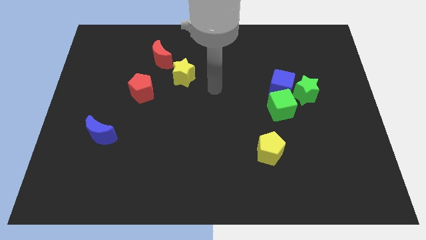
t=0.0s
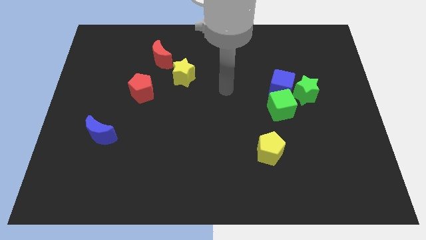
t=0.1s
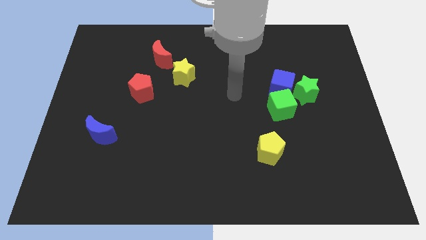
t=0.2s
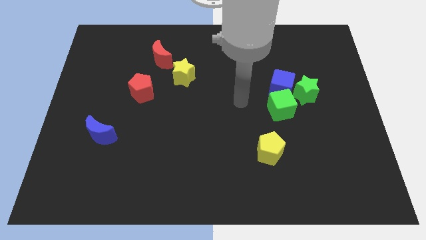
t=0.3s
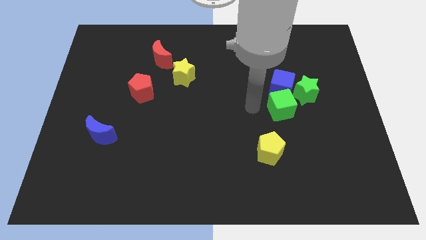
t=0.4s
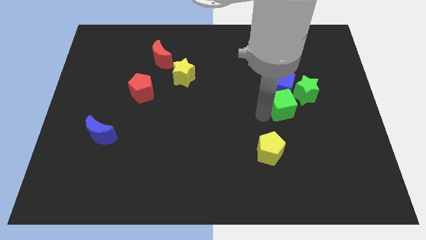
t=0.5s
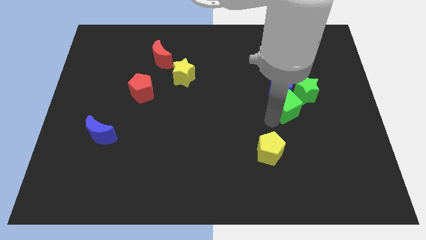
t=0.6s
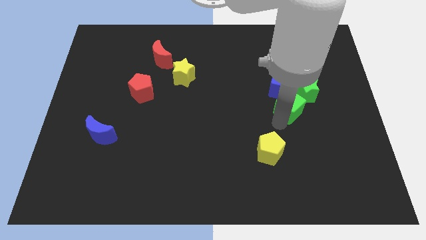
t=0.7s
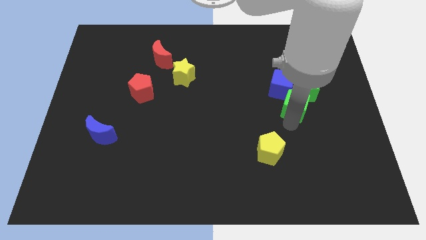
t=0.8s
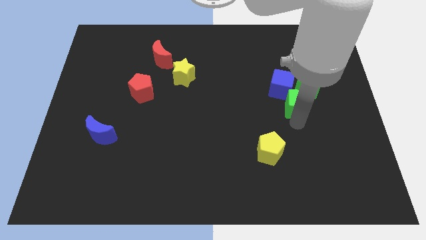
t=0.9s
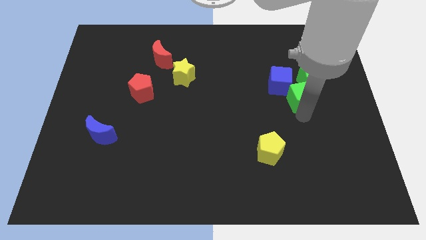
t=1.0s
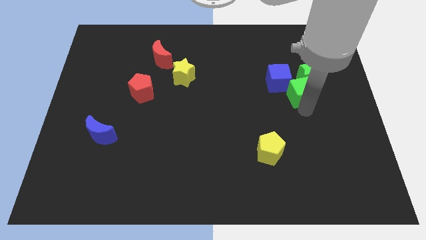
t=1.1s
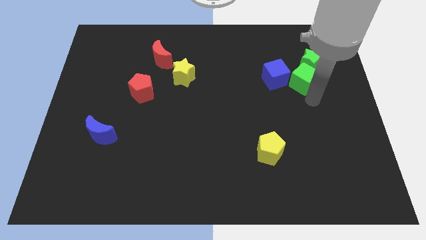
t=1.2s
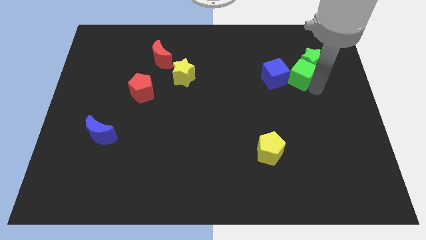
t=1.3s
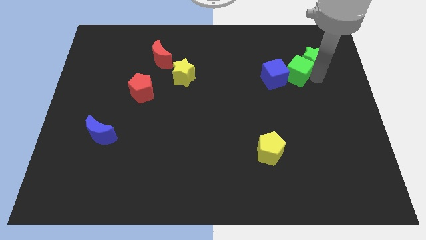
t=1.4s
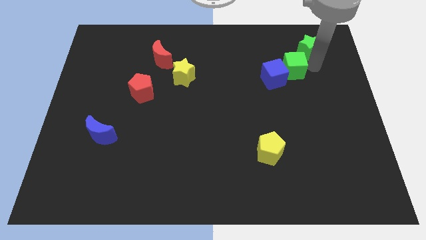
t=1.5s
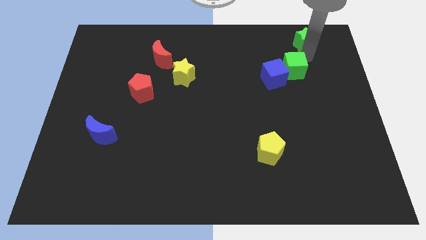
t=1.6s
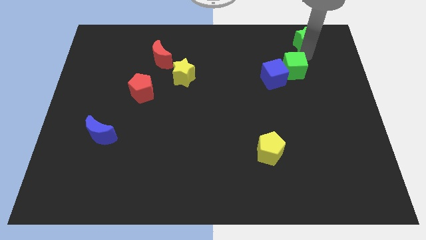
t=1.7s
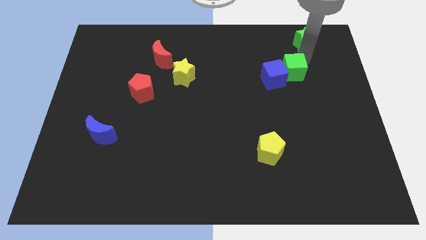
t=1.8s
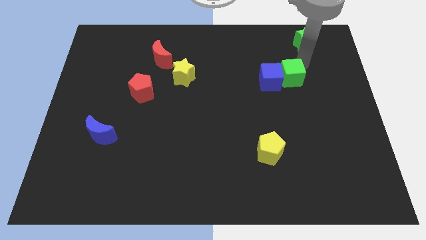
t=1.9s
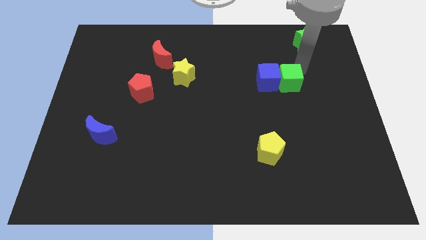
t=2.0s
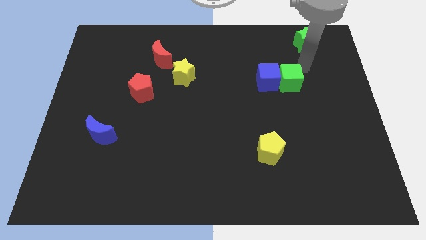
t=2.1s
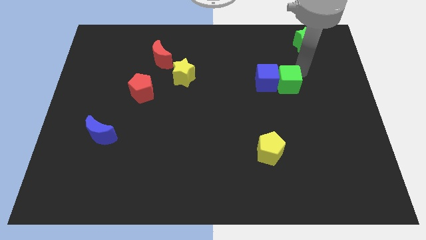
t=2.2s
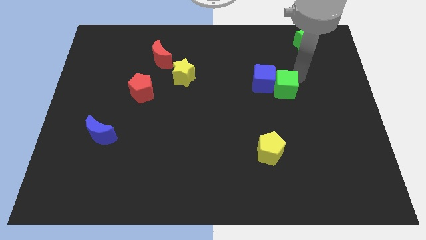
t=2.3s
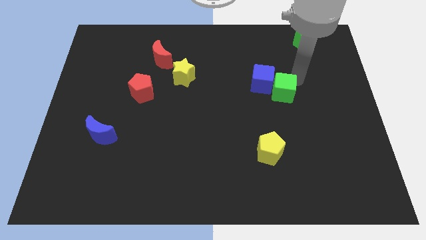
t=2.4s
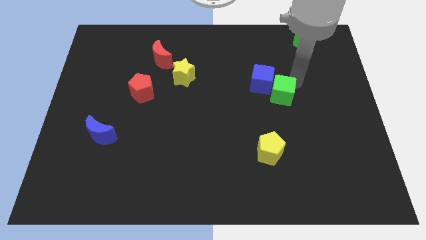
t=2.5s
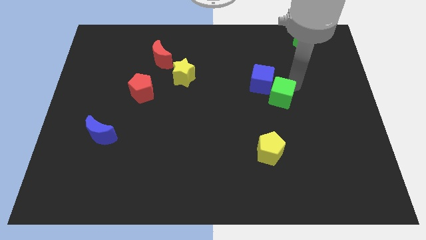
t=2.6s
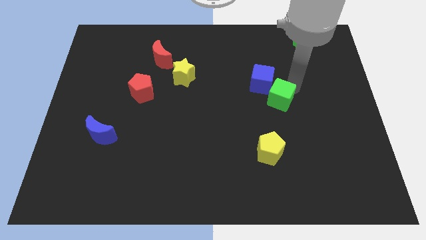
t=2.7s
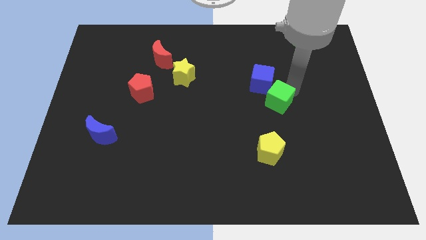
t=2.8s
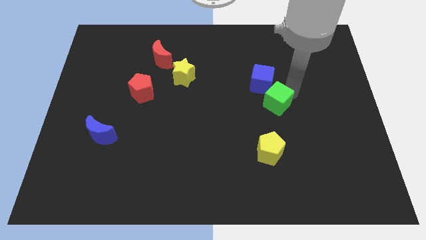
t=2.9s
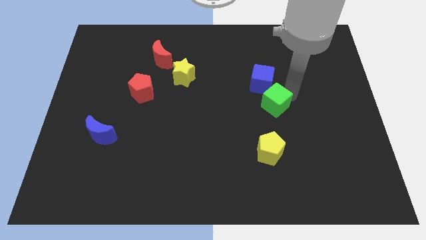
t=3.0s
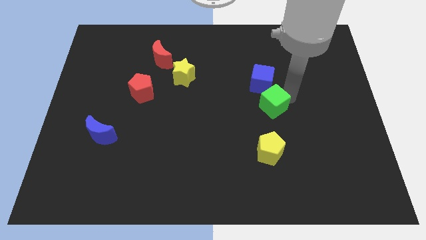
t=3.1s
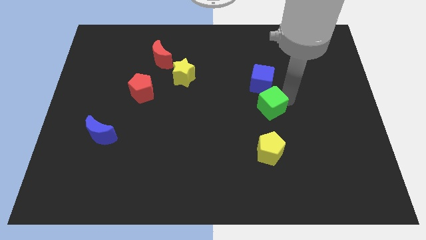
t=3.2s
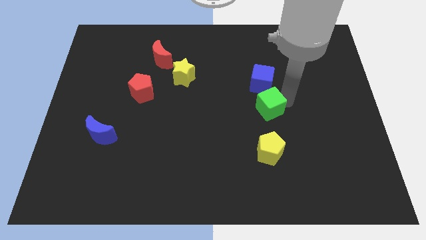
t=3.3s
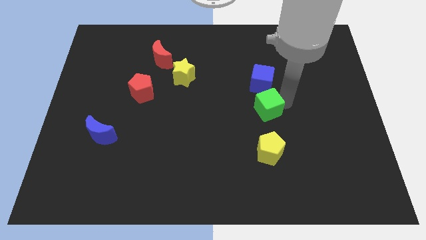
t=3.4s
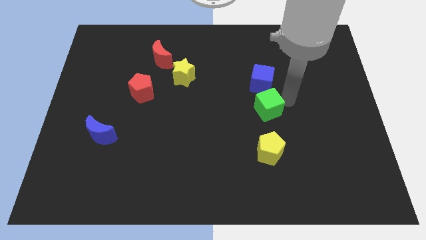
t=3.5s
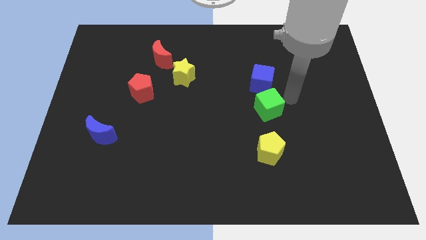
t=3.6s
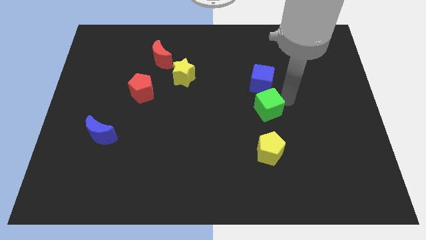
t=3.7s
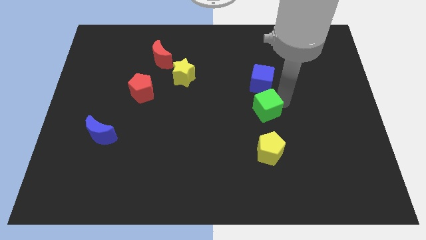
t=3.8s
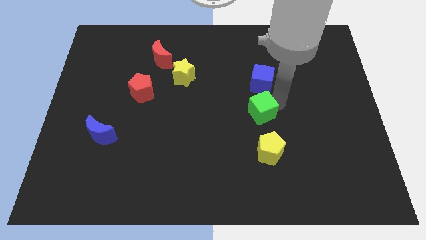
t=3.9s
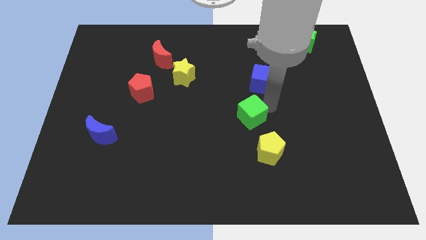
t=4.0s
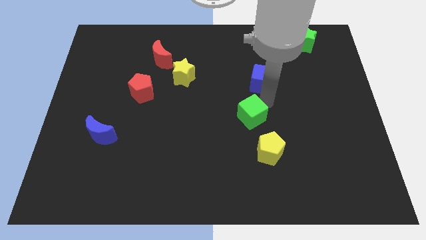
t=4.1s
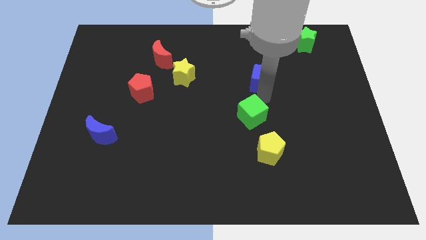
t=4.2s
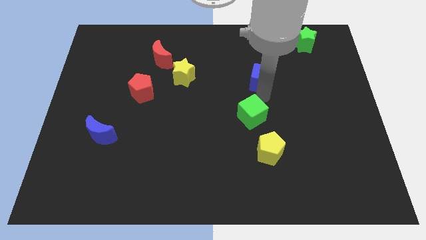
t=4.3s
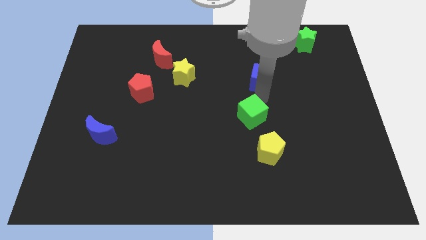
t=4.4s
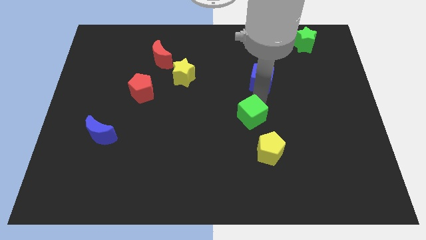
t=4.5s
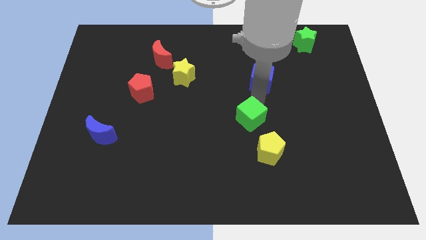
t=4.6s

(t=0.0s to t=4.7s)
slightly push the green cube diagonally downwards and left

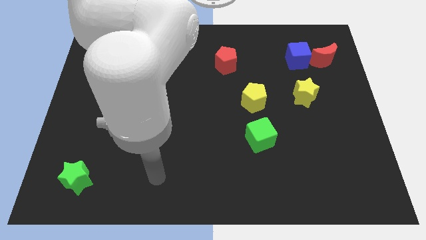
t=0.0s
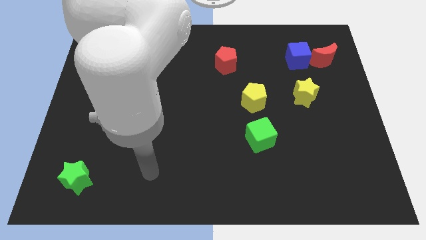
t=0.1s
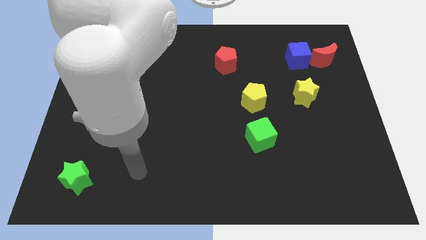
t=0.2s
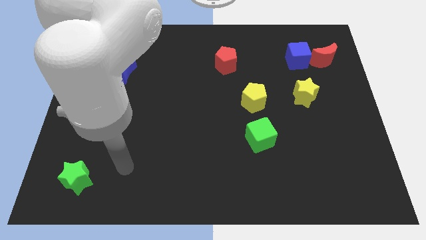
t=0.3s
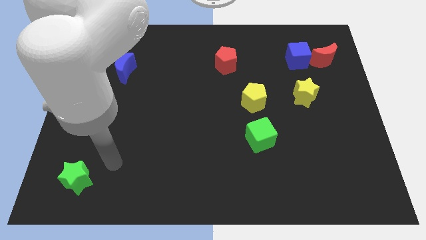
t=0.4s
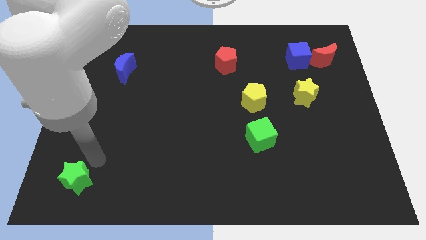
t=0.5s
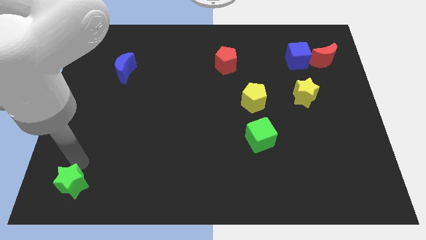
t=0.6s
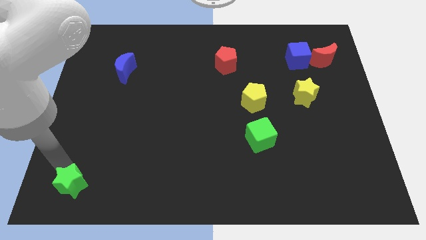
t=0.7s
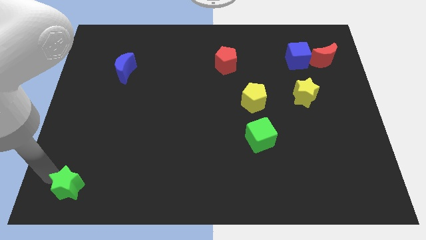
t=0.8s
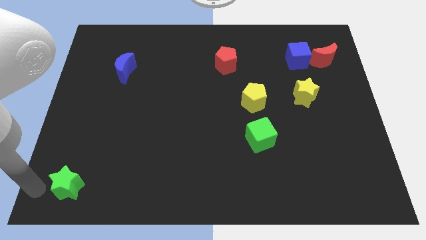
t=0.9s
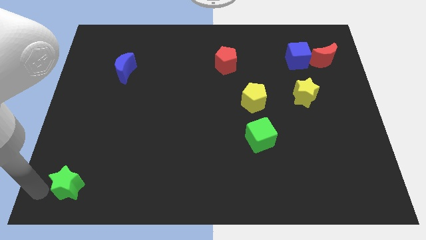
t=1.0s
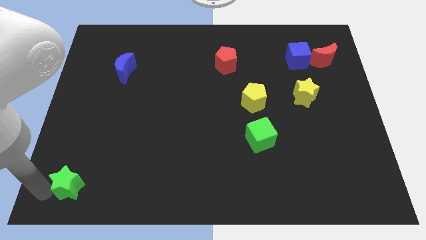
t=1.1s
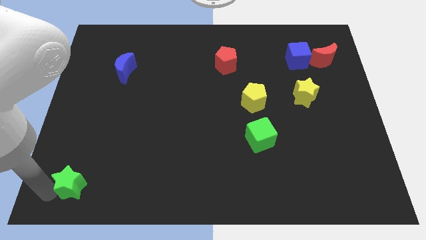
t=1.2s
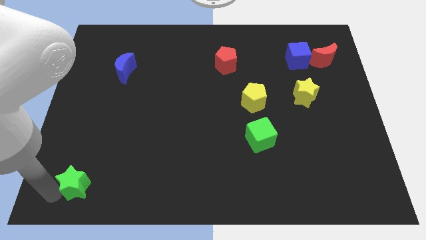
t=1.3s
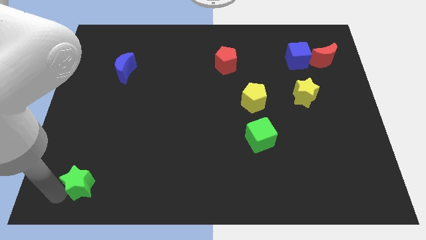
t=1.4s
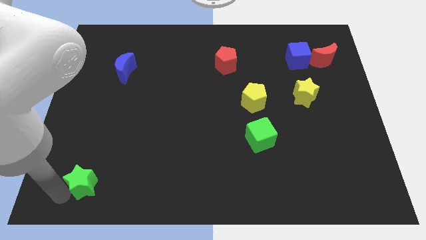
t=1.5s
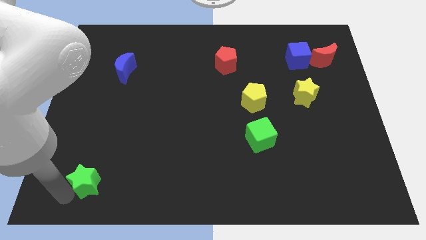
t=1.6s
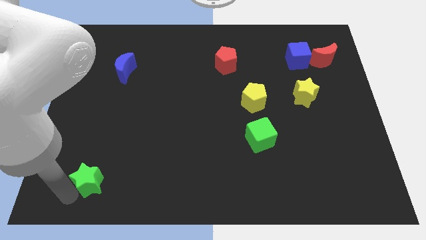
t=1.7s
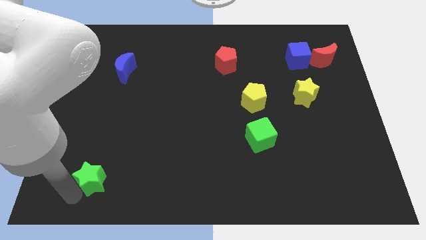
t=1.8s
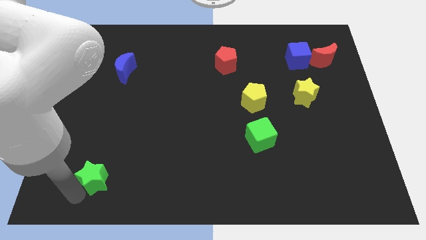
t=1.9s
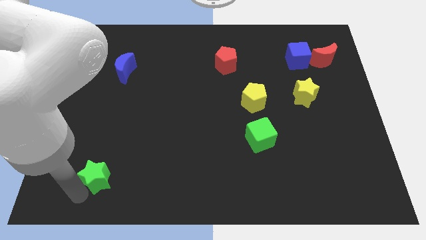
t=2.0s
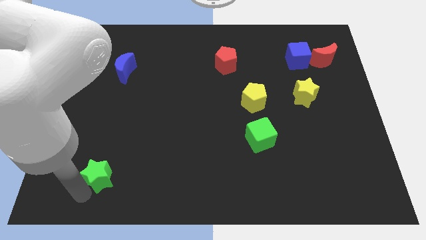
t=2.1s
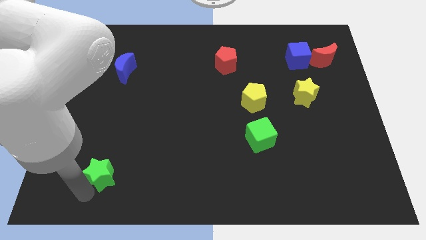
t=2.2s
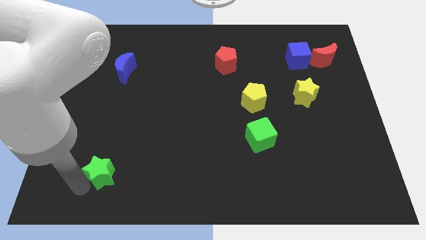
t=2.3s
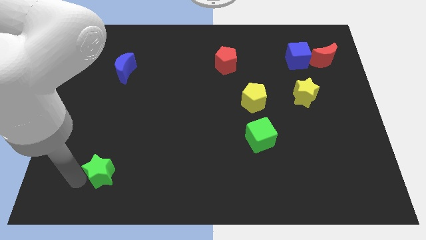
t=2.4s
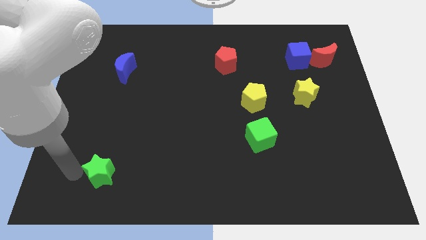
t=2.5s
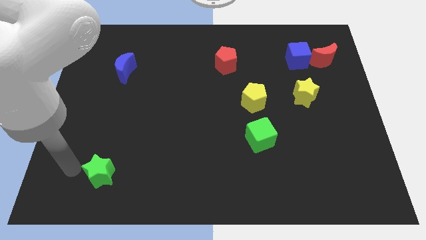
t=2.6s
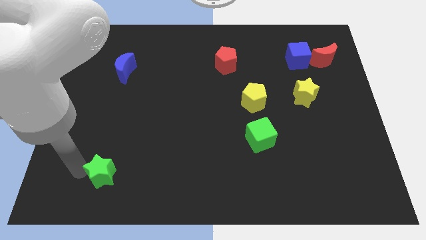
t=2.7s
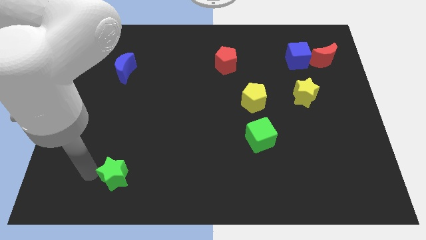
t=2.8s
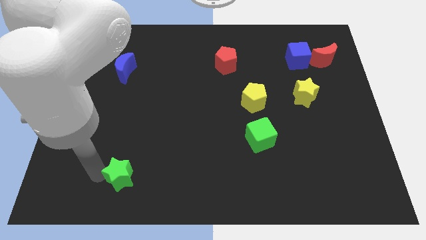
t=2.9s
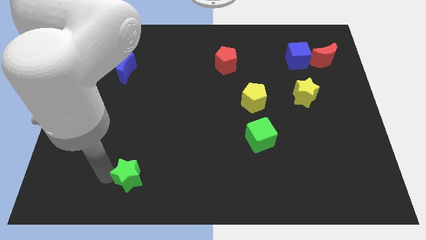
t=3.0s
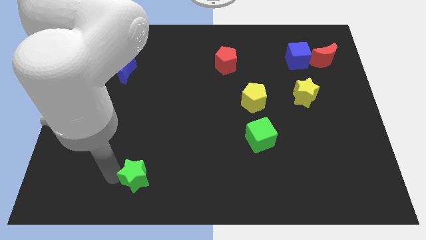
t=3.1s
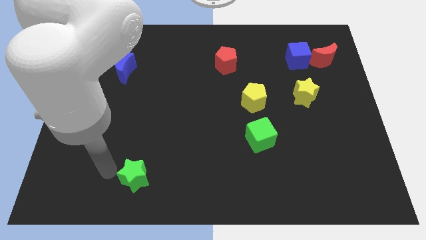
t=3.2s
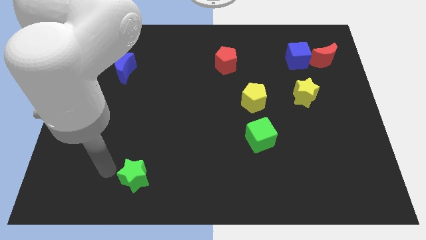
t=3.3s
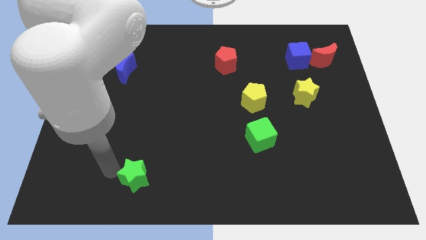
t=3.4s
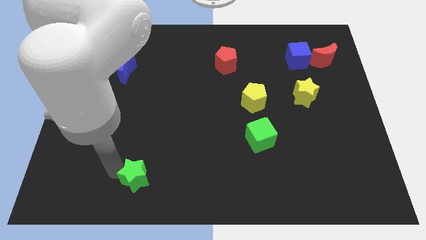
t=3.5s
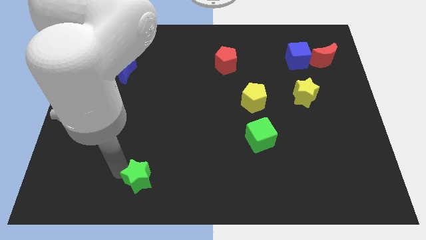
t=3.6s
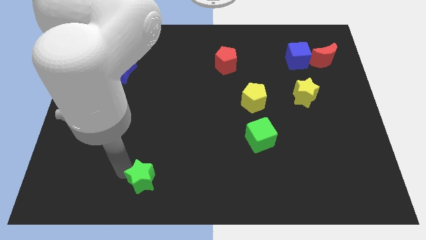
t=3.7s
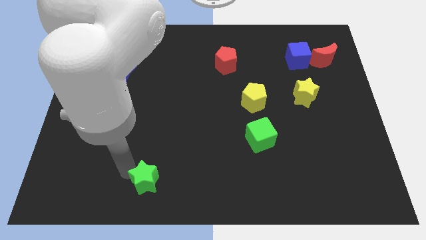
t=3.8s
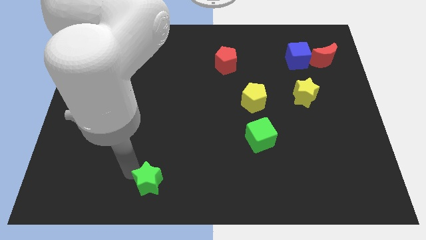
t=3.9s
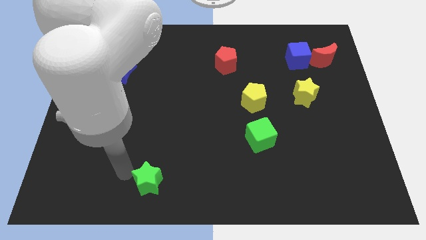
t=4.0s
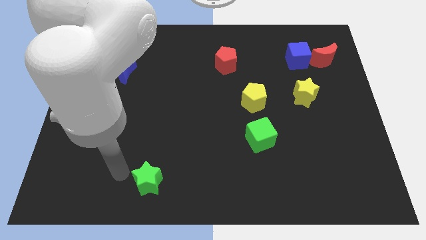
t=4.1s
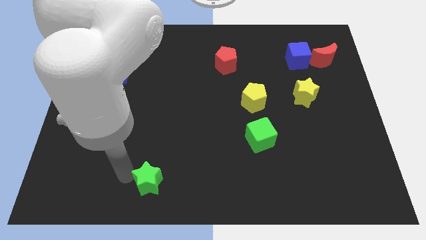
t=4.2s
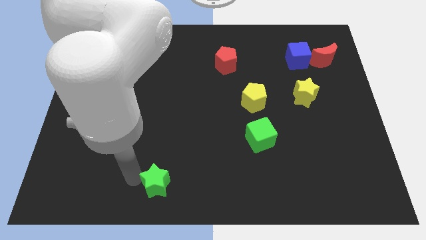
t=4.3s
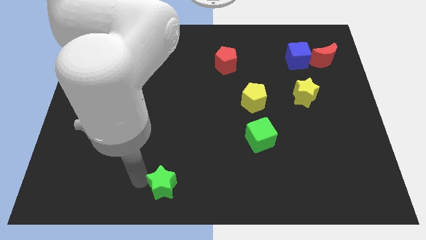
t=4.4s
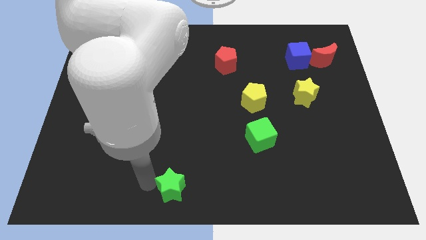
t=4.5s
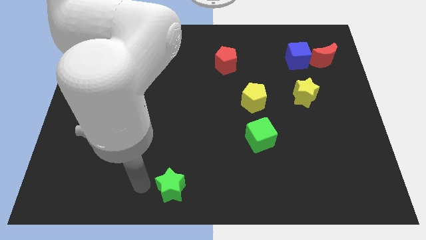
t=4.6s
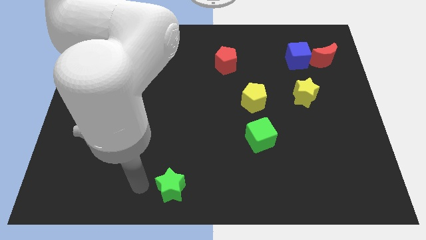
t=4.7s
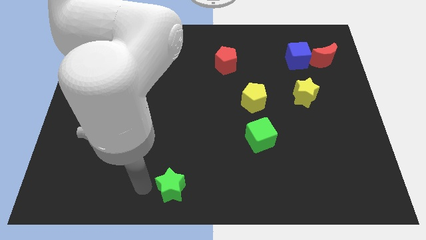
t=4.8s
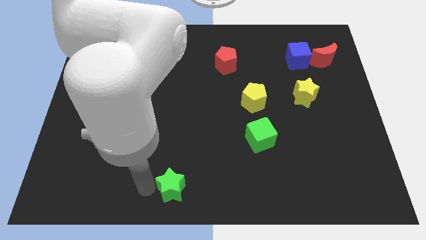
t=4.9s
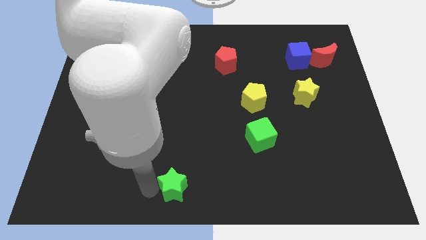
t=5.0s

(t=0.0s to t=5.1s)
push the green star to the right
